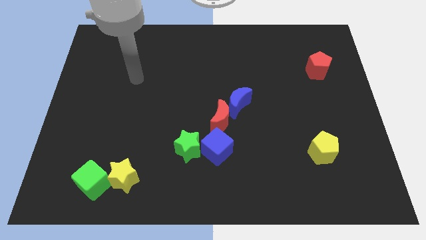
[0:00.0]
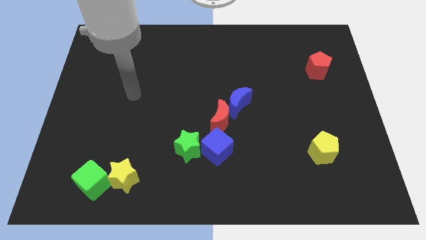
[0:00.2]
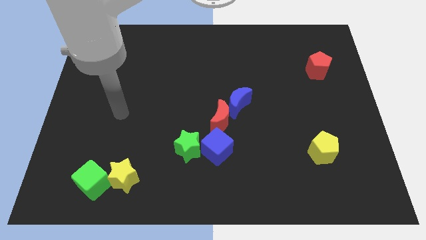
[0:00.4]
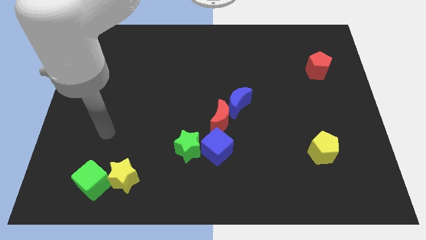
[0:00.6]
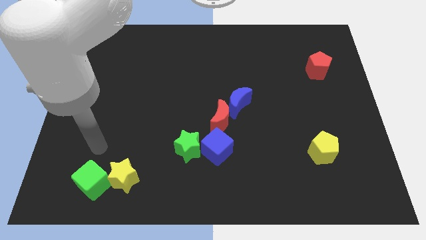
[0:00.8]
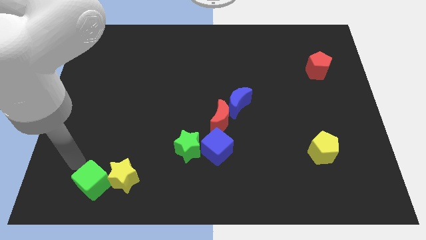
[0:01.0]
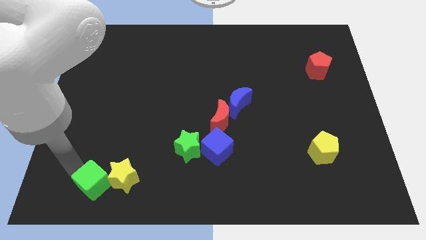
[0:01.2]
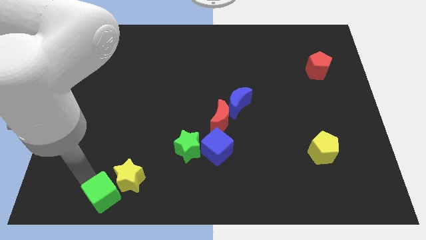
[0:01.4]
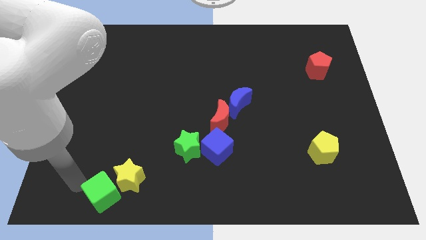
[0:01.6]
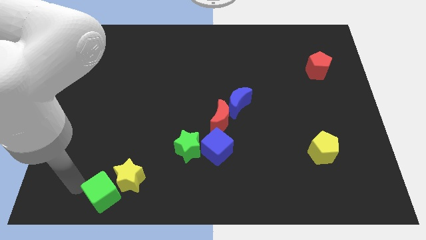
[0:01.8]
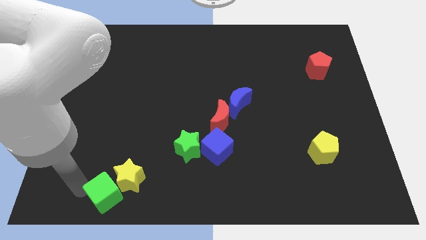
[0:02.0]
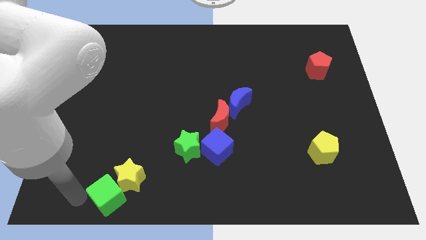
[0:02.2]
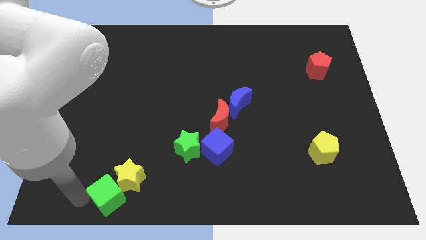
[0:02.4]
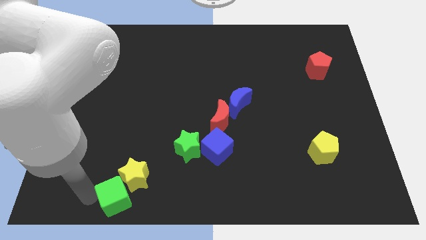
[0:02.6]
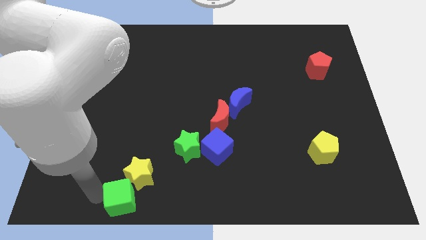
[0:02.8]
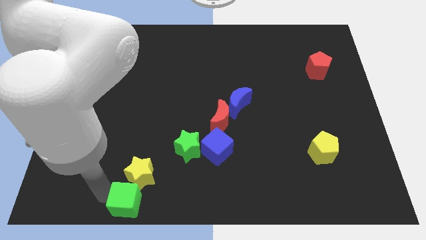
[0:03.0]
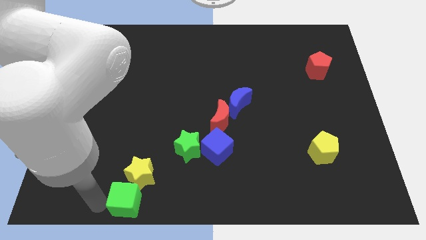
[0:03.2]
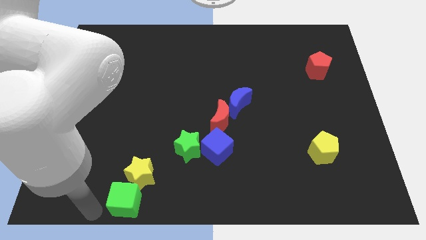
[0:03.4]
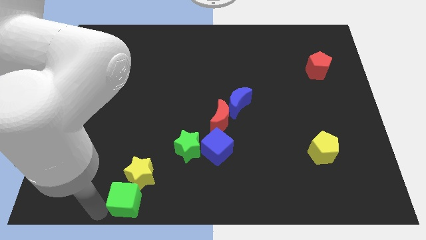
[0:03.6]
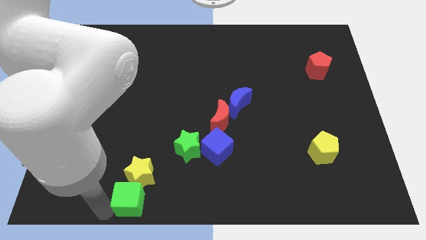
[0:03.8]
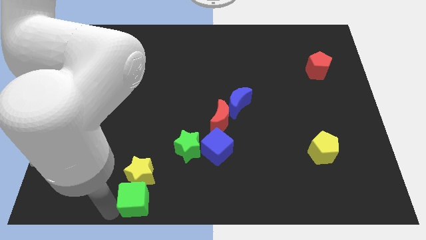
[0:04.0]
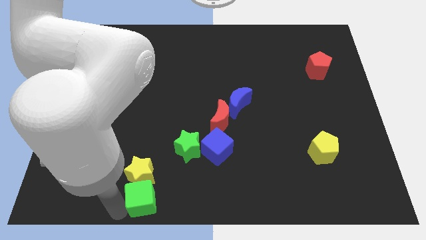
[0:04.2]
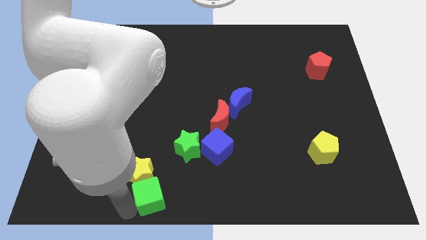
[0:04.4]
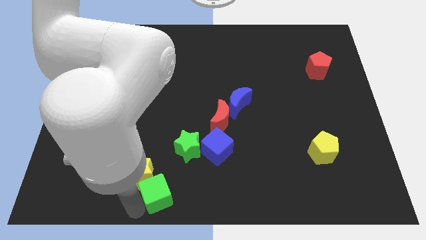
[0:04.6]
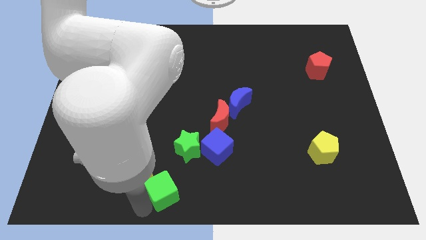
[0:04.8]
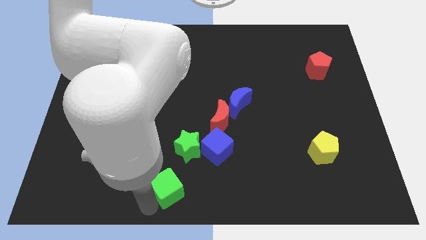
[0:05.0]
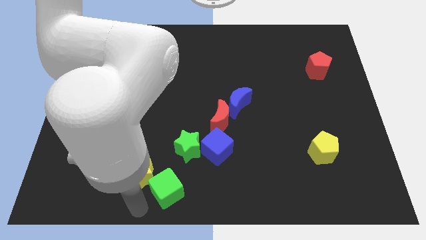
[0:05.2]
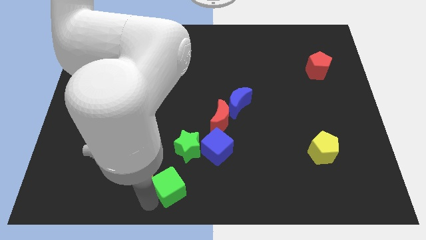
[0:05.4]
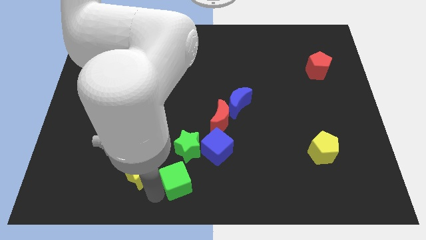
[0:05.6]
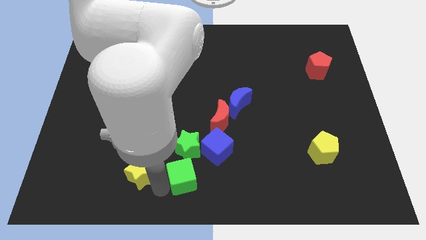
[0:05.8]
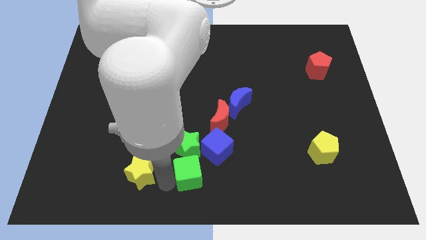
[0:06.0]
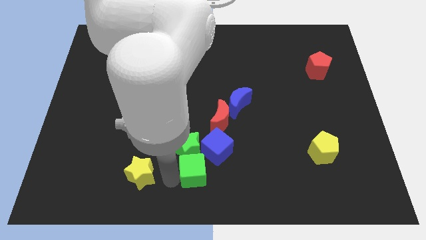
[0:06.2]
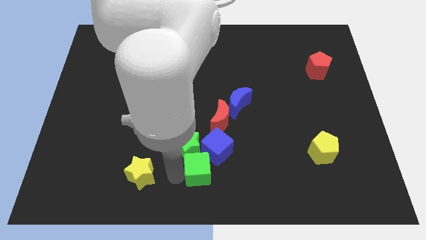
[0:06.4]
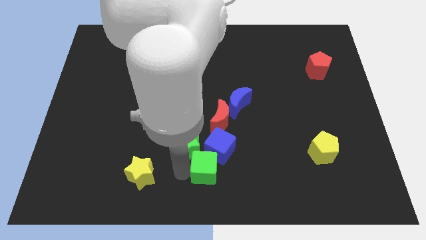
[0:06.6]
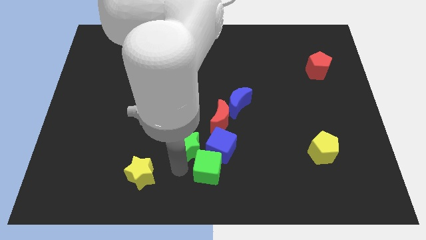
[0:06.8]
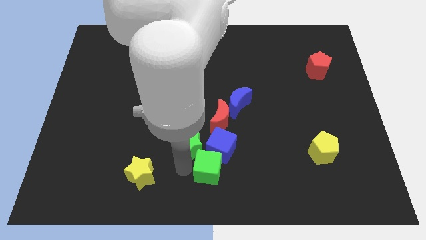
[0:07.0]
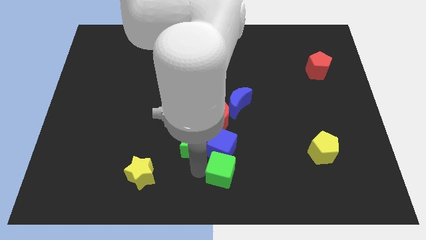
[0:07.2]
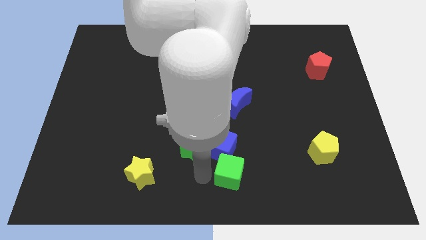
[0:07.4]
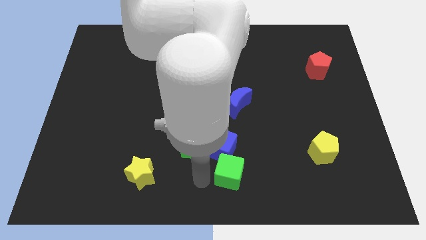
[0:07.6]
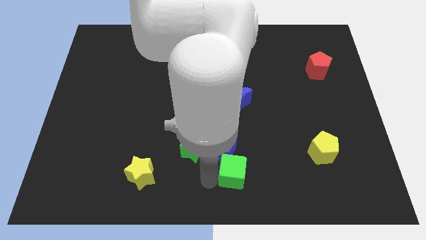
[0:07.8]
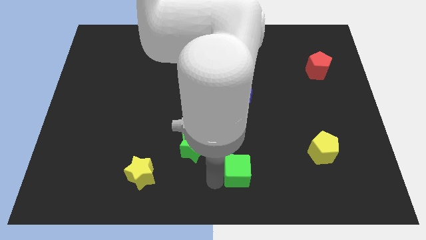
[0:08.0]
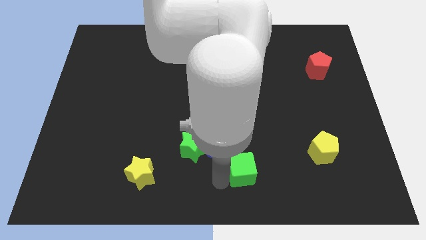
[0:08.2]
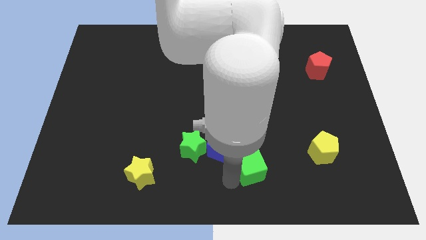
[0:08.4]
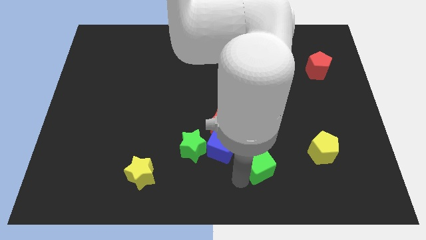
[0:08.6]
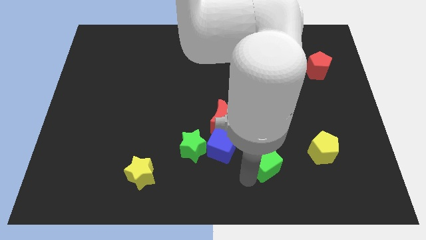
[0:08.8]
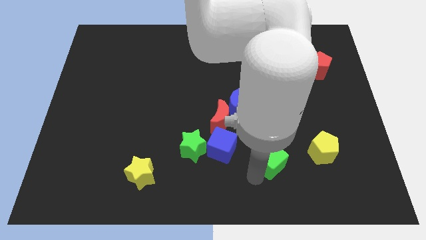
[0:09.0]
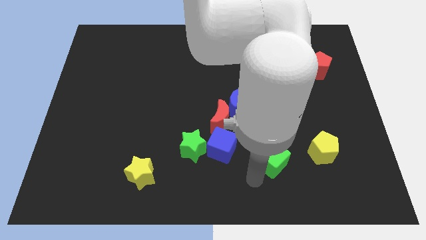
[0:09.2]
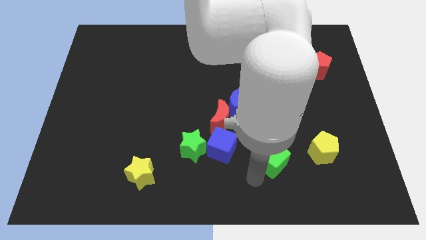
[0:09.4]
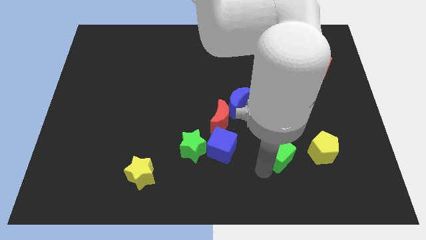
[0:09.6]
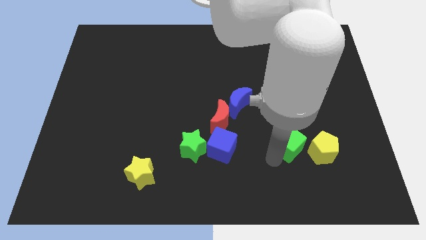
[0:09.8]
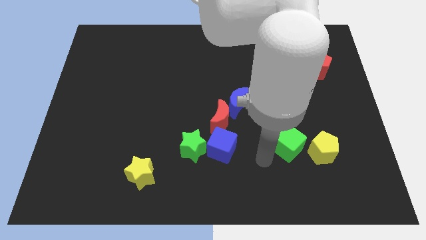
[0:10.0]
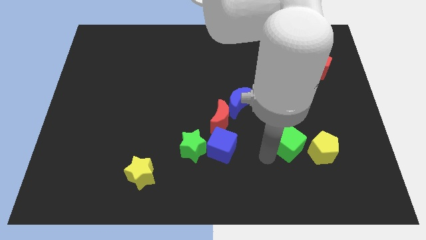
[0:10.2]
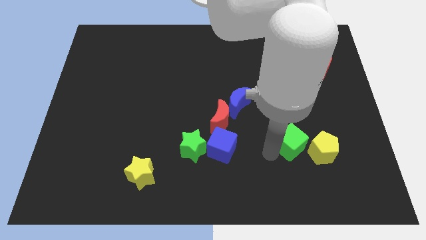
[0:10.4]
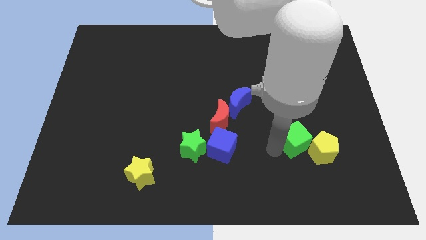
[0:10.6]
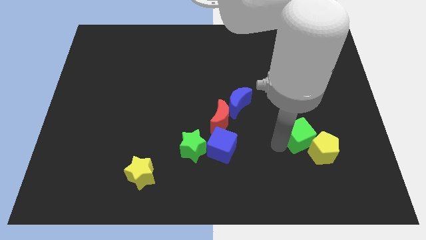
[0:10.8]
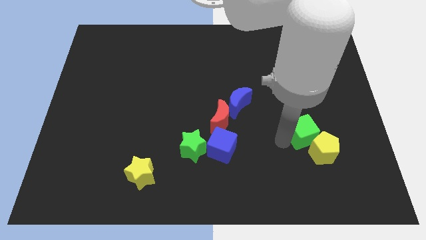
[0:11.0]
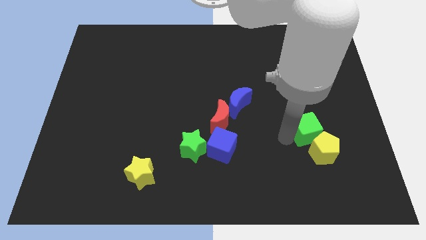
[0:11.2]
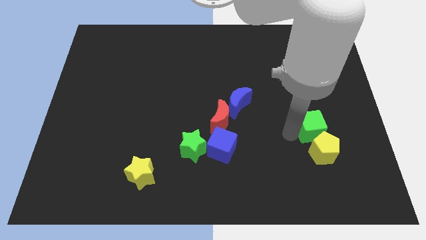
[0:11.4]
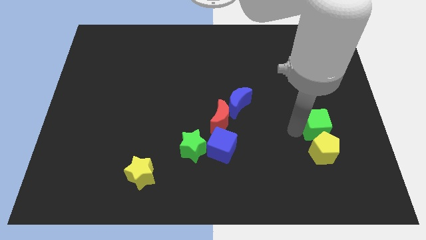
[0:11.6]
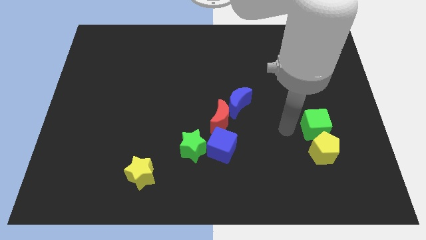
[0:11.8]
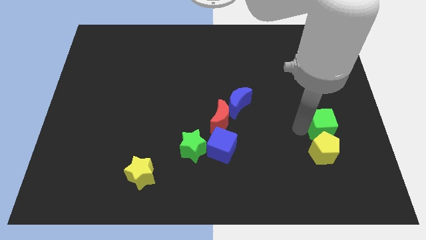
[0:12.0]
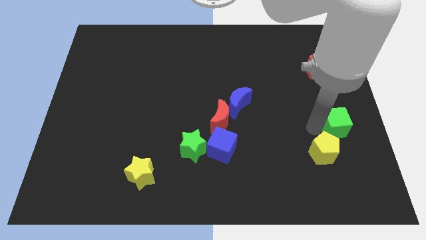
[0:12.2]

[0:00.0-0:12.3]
slide the green cube to the center right

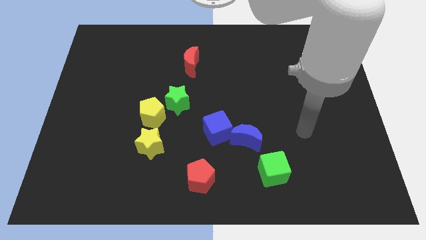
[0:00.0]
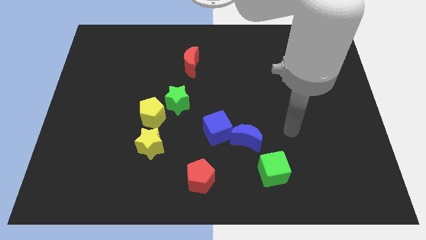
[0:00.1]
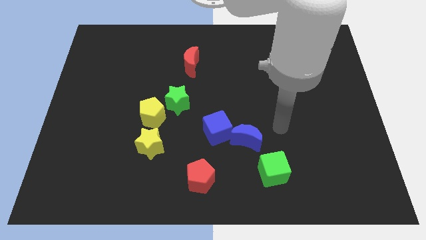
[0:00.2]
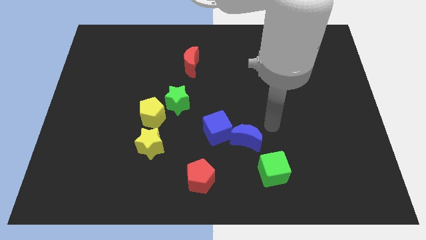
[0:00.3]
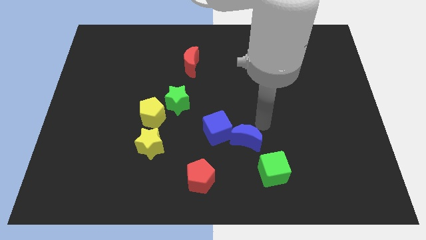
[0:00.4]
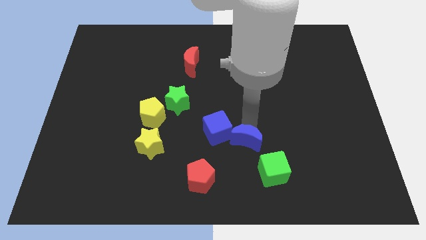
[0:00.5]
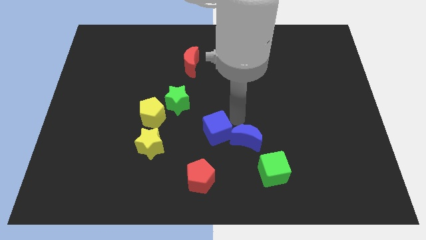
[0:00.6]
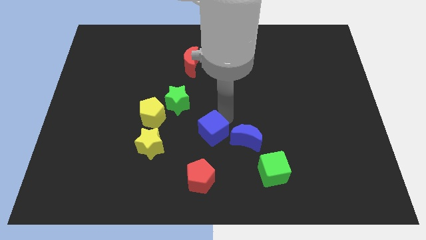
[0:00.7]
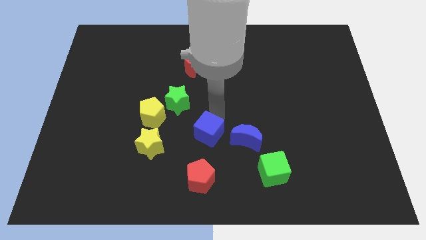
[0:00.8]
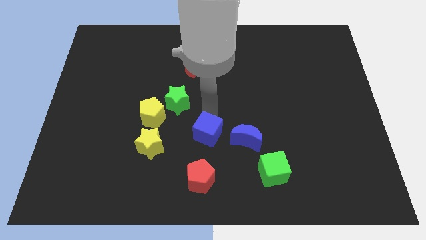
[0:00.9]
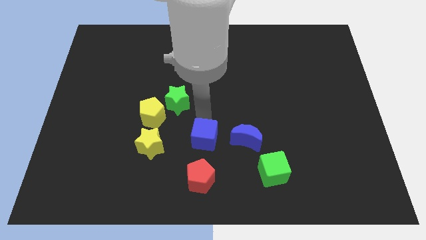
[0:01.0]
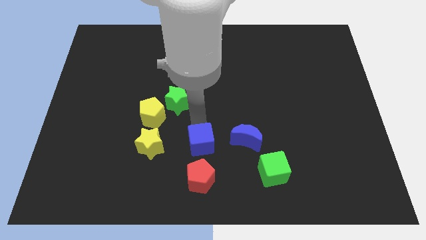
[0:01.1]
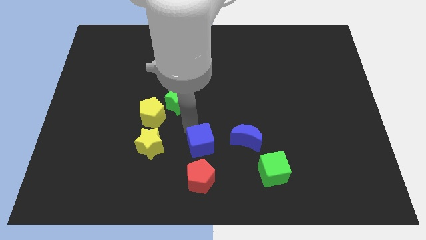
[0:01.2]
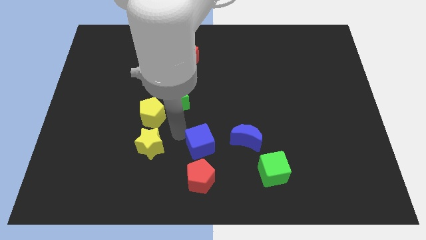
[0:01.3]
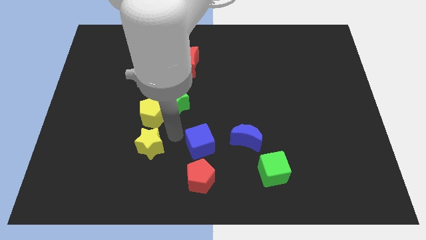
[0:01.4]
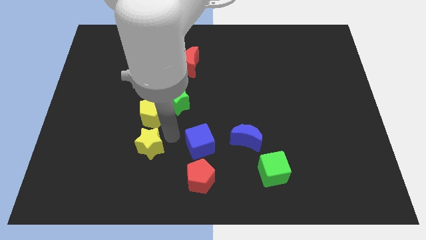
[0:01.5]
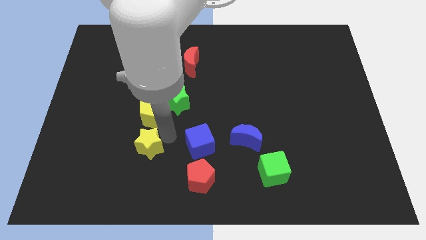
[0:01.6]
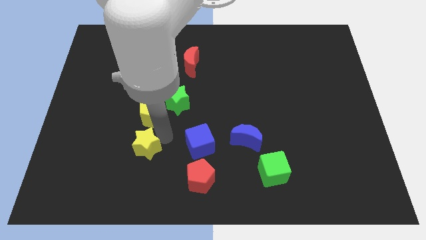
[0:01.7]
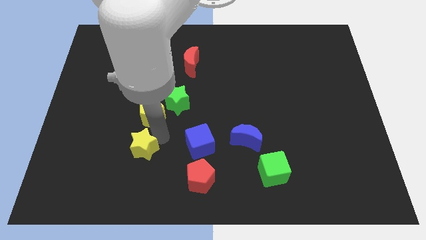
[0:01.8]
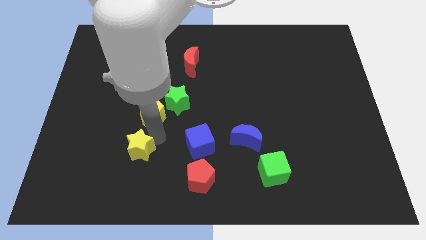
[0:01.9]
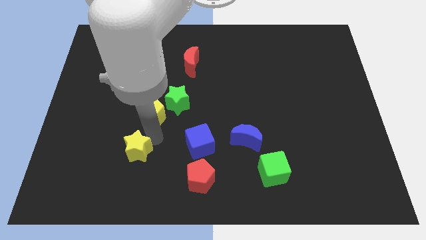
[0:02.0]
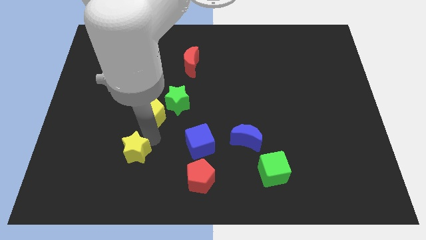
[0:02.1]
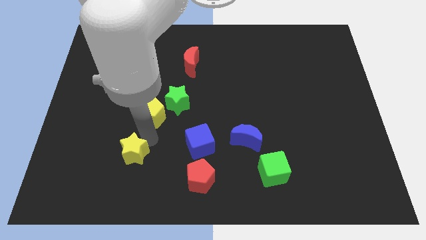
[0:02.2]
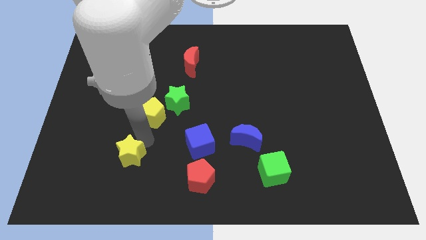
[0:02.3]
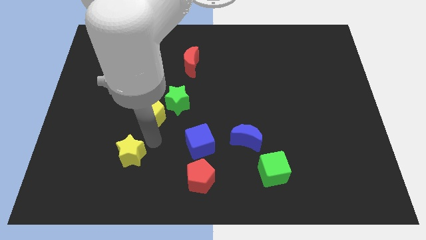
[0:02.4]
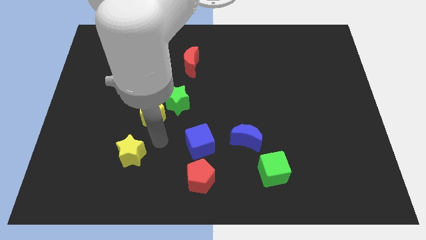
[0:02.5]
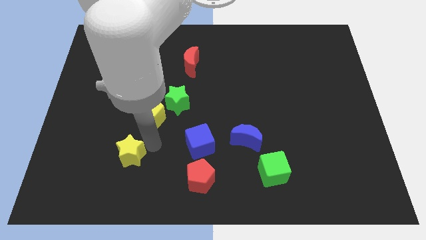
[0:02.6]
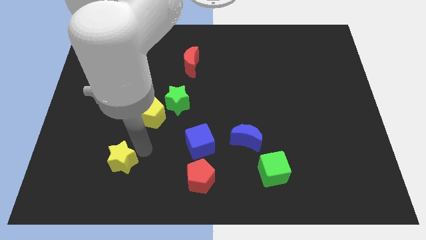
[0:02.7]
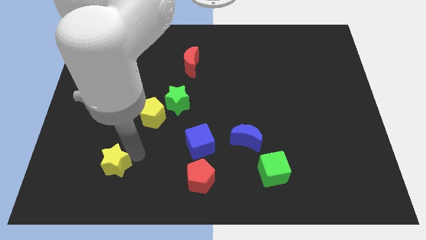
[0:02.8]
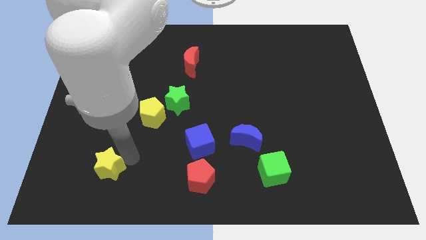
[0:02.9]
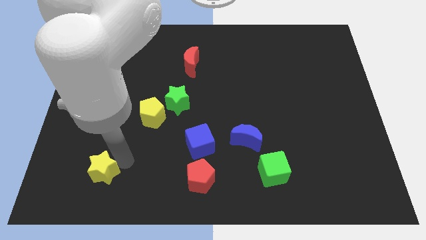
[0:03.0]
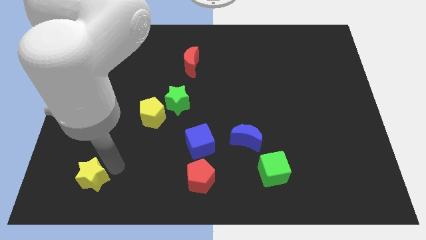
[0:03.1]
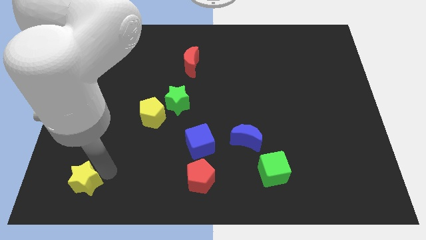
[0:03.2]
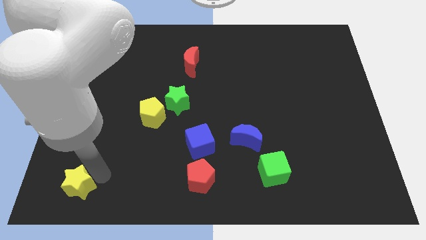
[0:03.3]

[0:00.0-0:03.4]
put the yellow star to the bottom left
